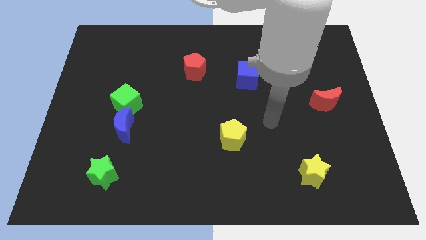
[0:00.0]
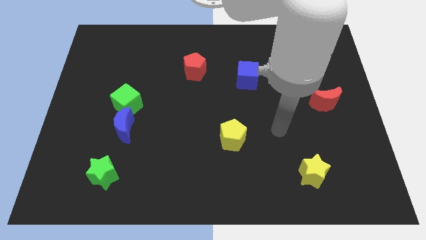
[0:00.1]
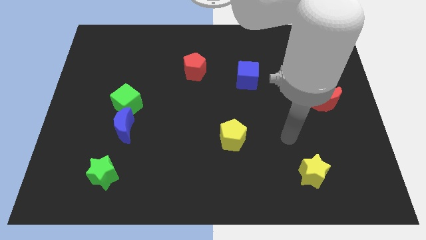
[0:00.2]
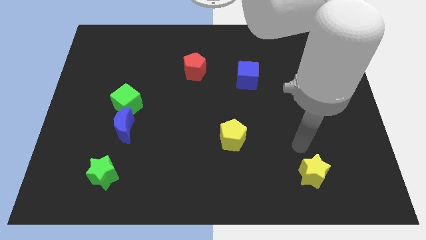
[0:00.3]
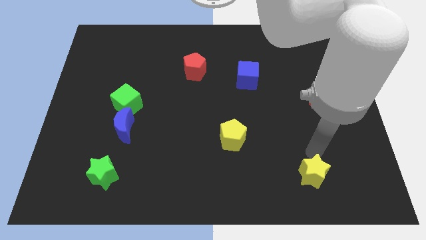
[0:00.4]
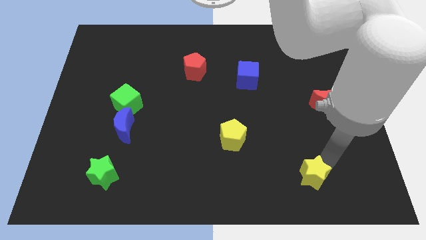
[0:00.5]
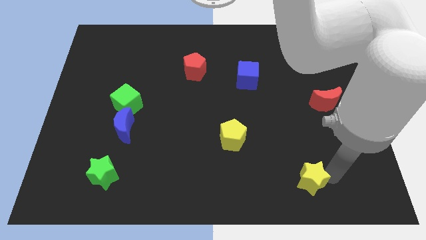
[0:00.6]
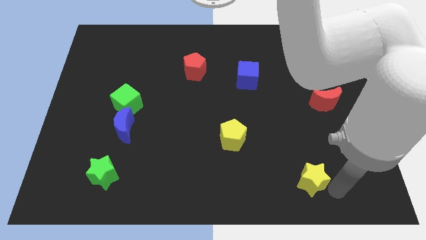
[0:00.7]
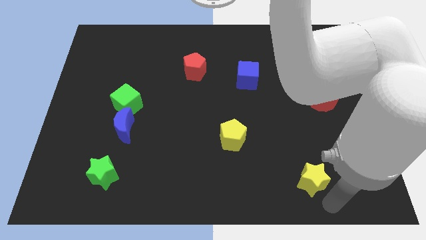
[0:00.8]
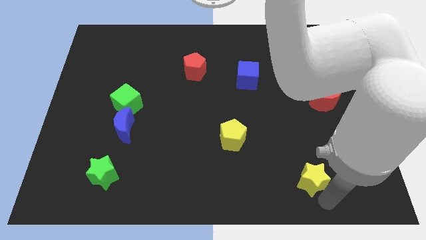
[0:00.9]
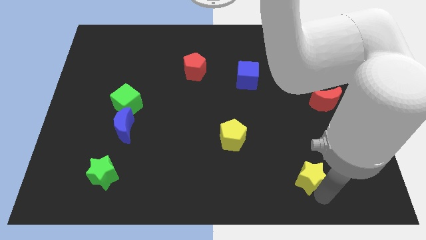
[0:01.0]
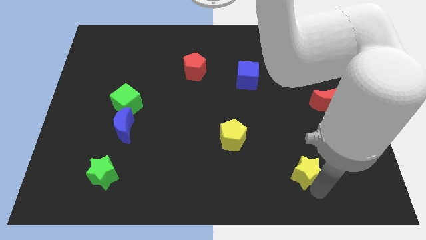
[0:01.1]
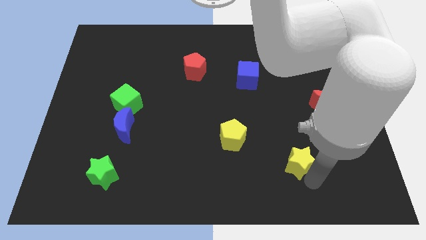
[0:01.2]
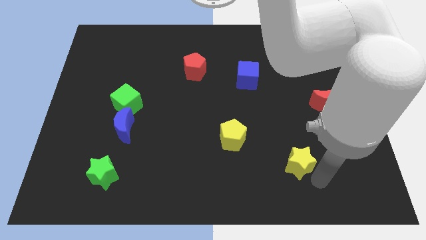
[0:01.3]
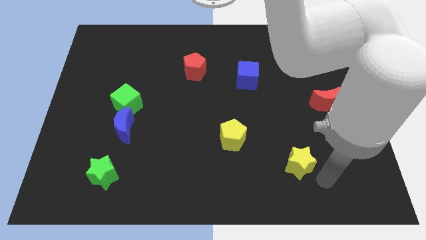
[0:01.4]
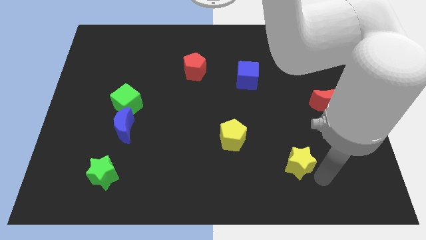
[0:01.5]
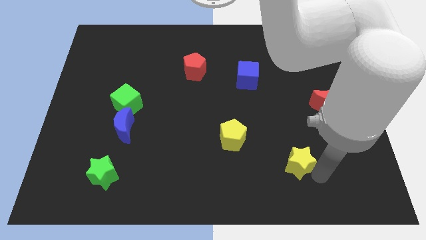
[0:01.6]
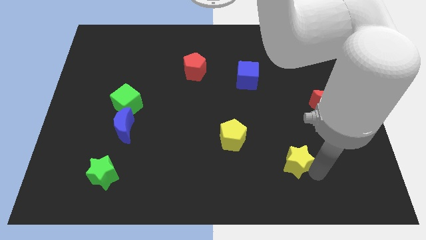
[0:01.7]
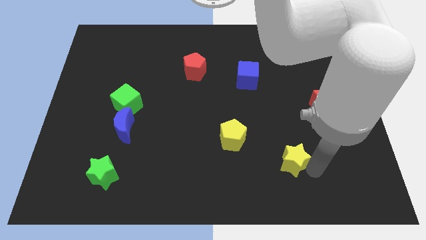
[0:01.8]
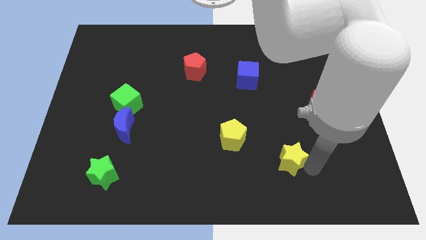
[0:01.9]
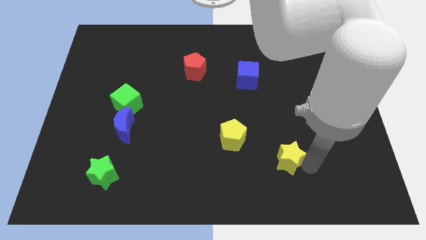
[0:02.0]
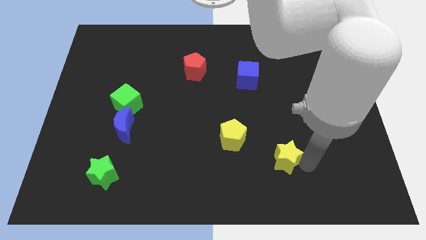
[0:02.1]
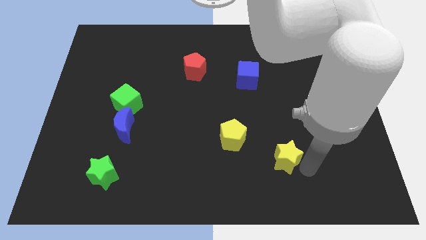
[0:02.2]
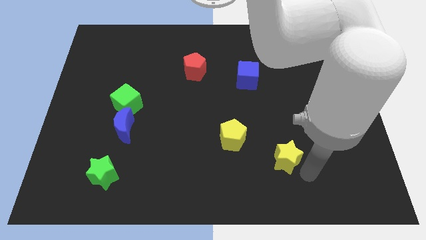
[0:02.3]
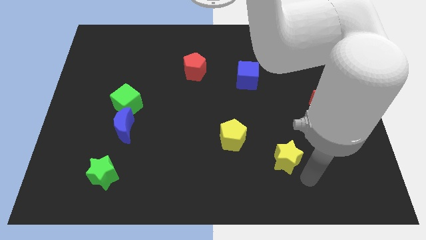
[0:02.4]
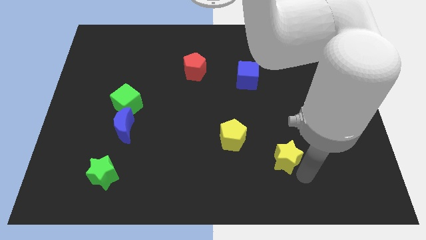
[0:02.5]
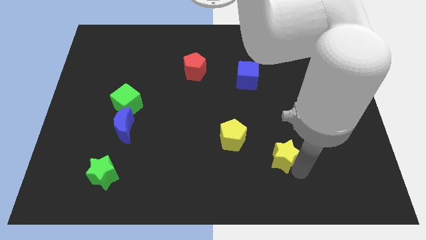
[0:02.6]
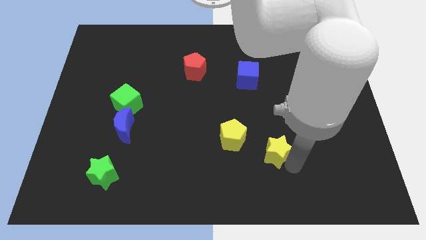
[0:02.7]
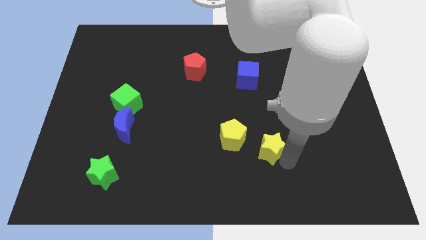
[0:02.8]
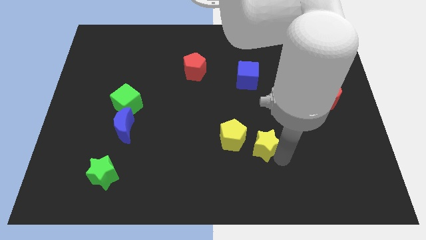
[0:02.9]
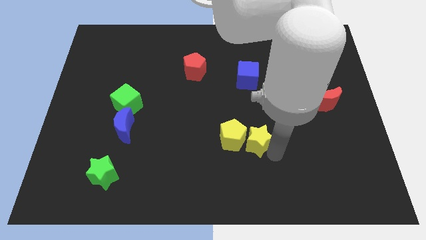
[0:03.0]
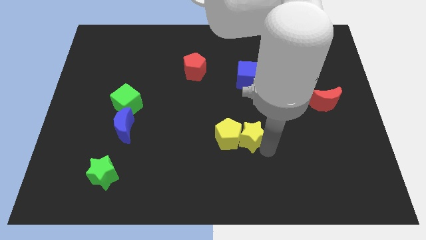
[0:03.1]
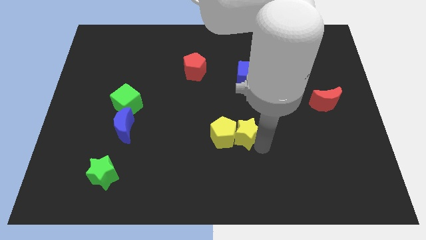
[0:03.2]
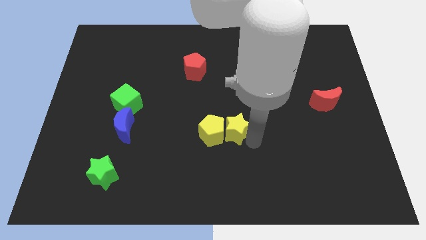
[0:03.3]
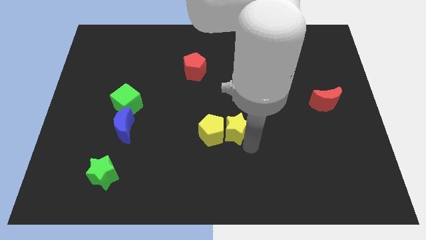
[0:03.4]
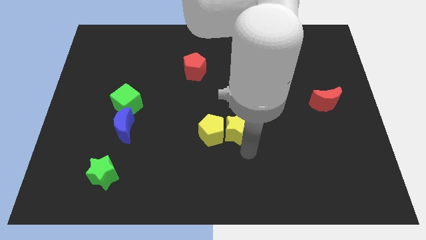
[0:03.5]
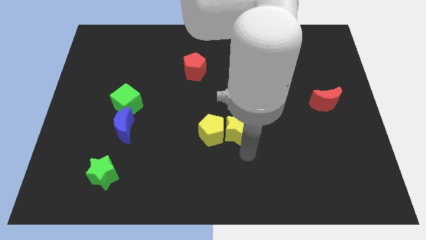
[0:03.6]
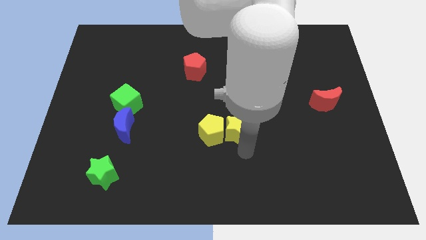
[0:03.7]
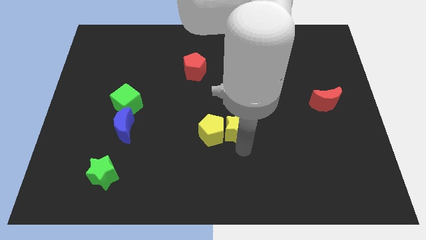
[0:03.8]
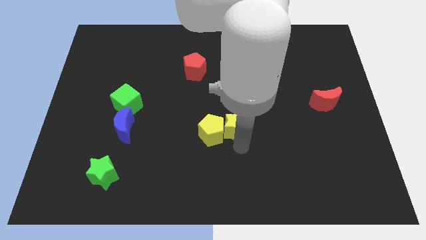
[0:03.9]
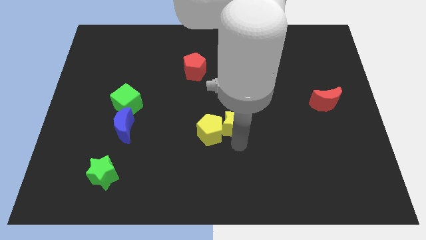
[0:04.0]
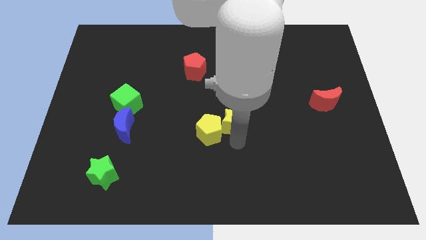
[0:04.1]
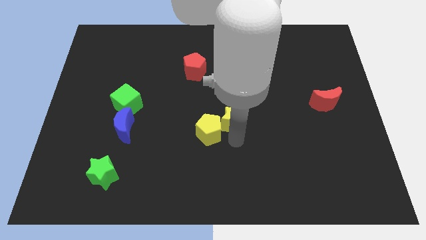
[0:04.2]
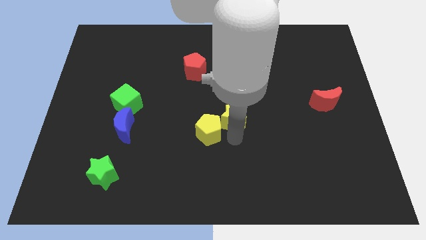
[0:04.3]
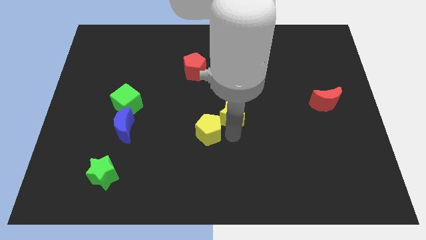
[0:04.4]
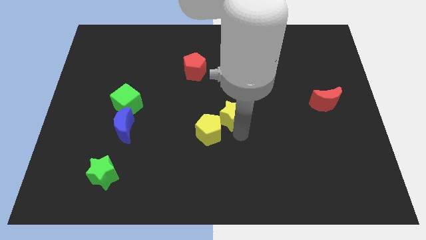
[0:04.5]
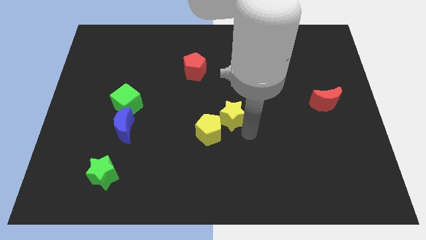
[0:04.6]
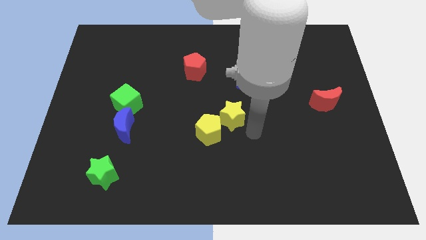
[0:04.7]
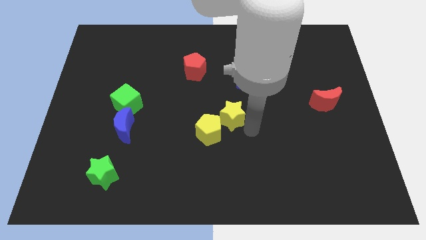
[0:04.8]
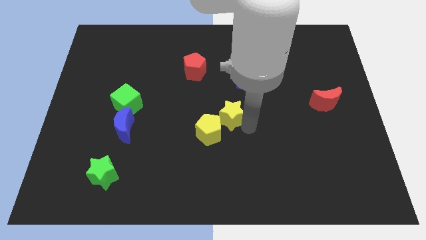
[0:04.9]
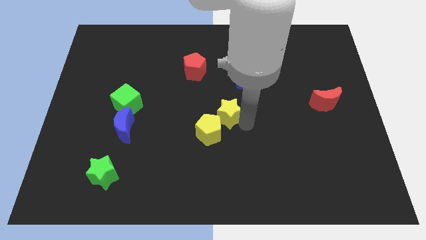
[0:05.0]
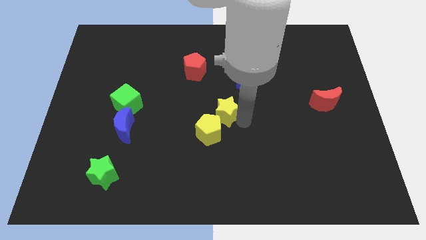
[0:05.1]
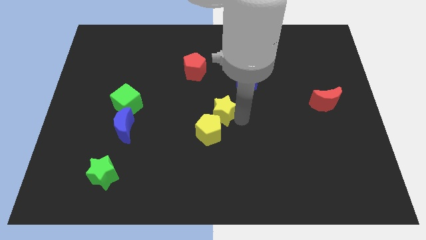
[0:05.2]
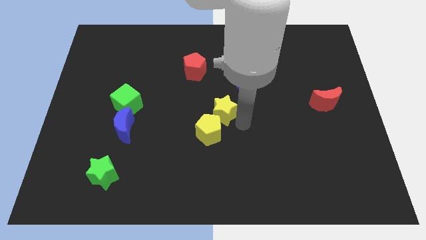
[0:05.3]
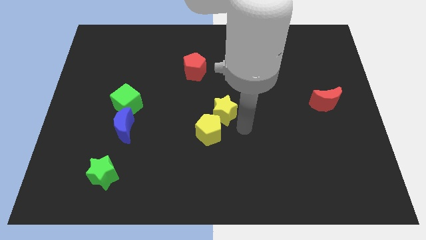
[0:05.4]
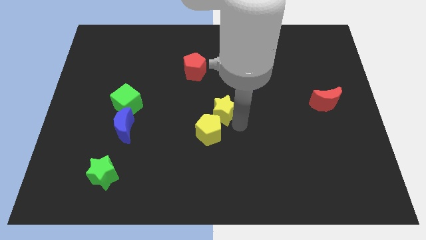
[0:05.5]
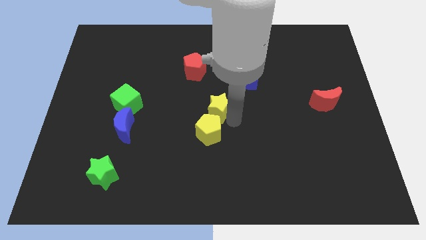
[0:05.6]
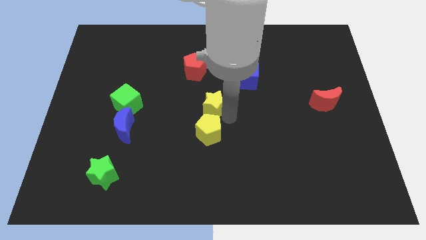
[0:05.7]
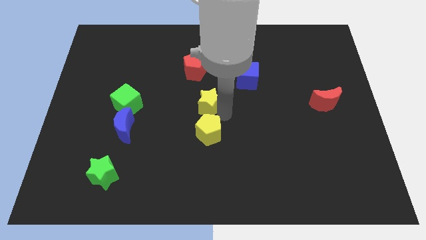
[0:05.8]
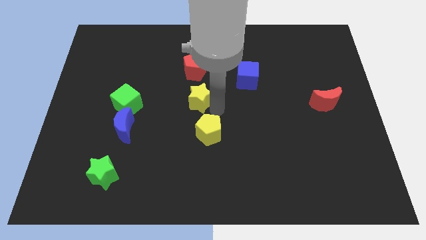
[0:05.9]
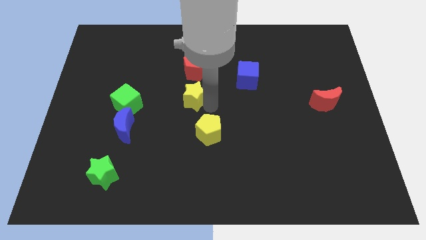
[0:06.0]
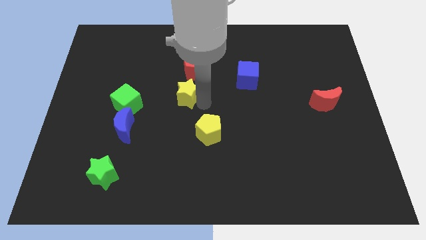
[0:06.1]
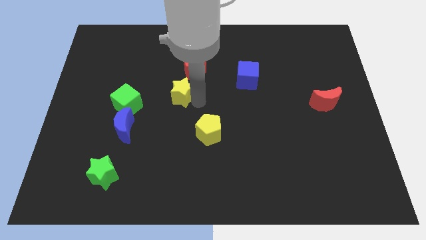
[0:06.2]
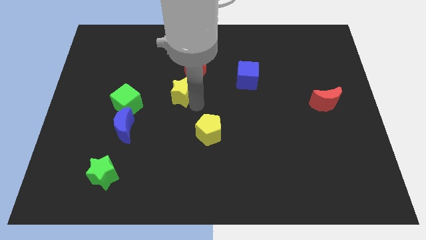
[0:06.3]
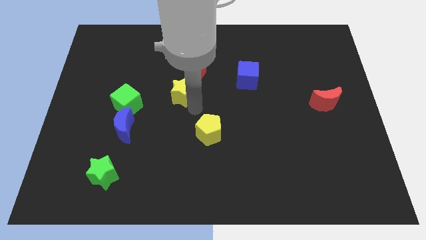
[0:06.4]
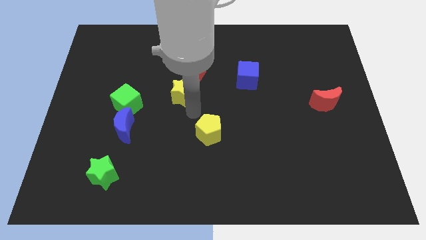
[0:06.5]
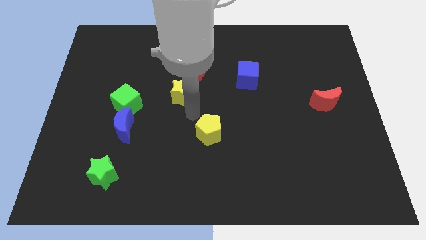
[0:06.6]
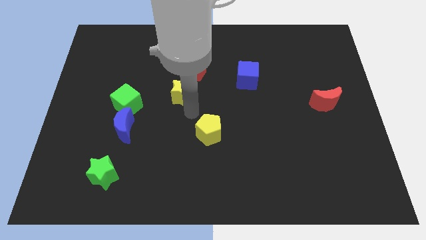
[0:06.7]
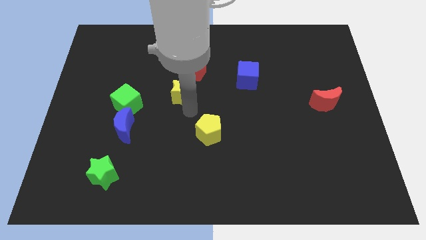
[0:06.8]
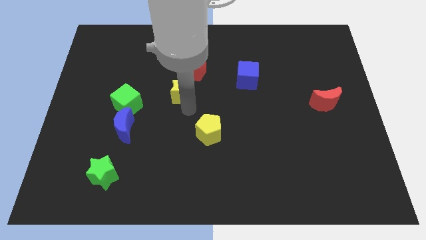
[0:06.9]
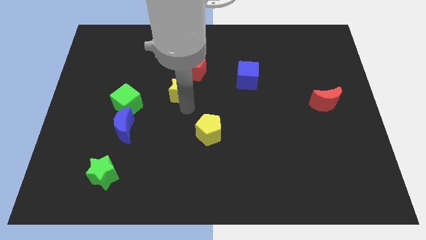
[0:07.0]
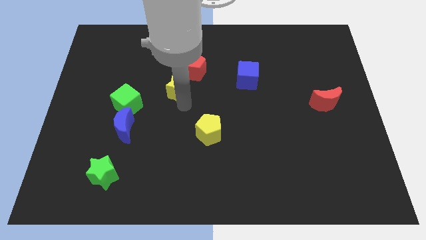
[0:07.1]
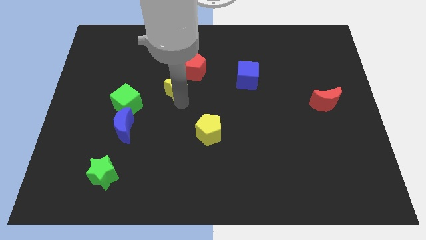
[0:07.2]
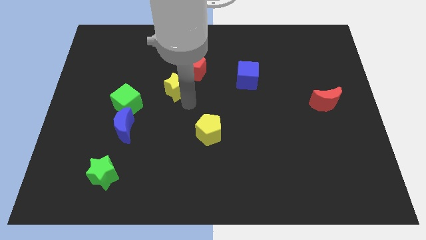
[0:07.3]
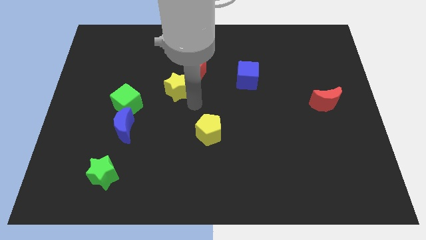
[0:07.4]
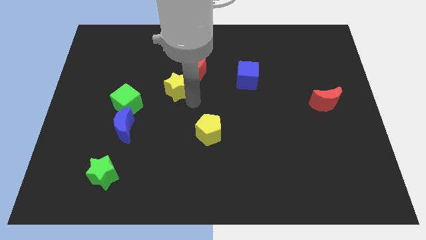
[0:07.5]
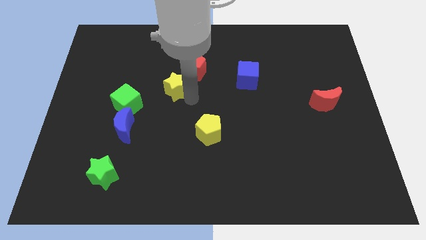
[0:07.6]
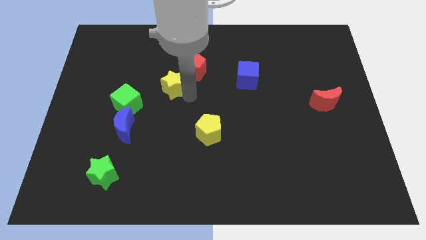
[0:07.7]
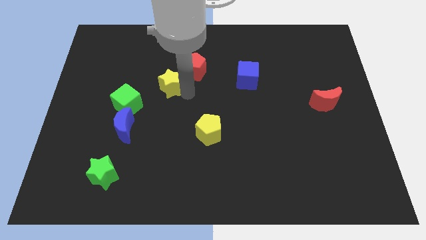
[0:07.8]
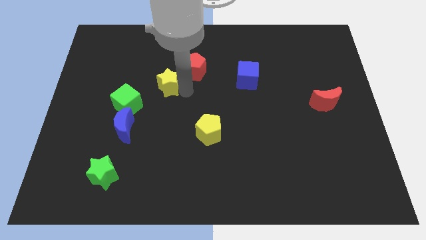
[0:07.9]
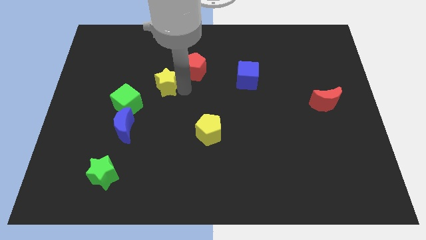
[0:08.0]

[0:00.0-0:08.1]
push the yellow star to the left of the red pentagon
